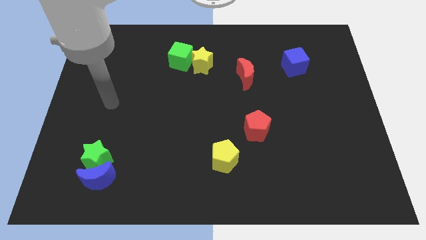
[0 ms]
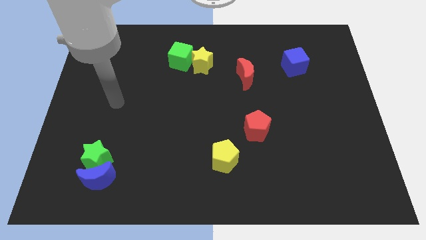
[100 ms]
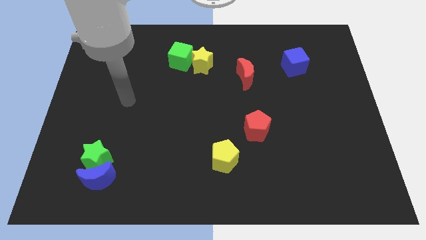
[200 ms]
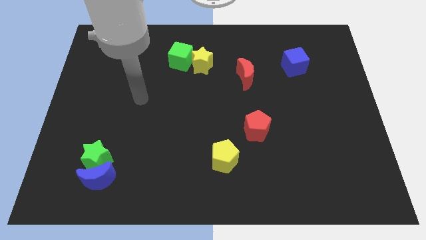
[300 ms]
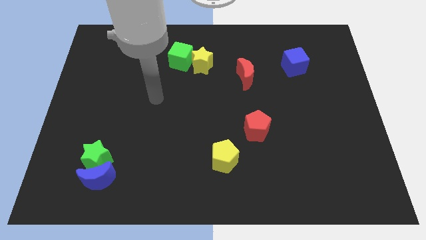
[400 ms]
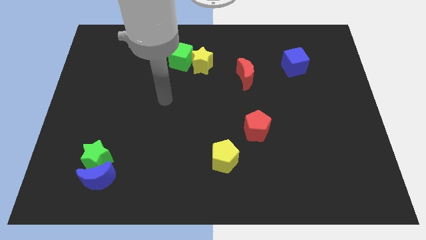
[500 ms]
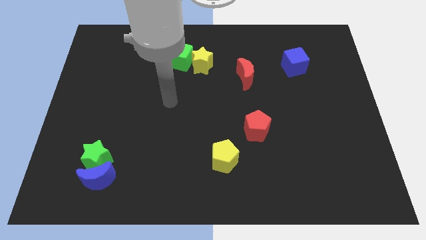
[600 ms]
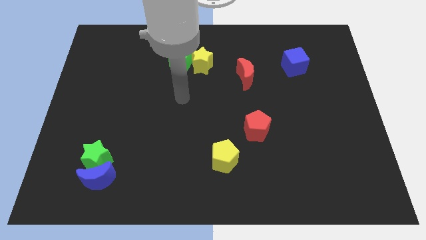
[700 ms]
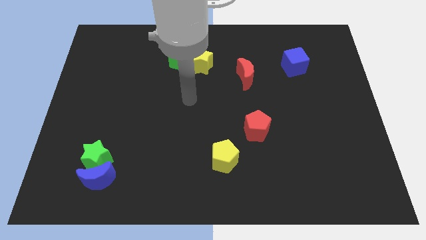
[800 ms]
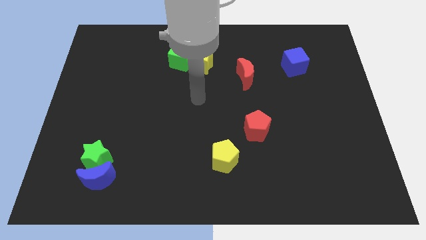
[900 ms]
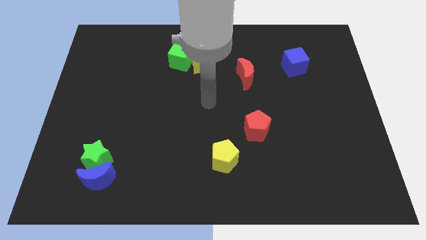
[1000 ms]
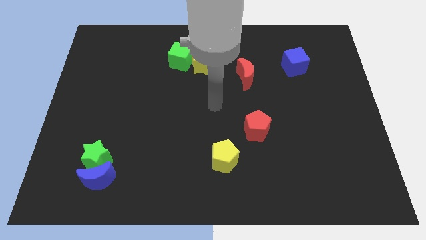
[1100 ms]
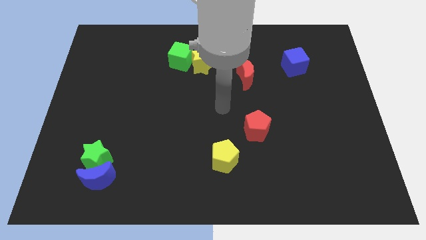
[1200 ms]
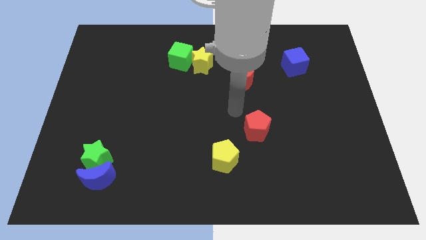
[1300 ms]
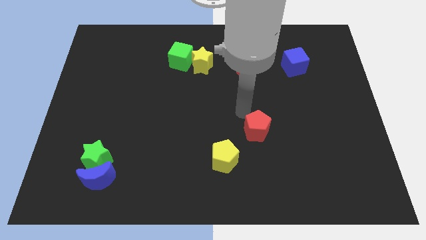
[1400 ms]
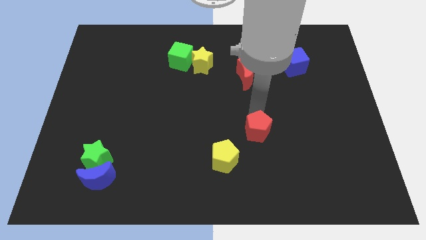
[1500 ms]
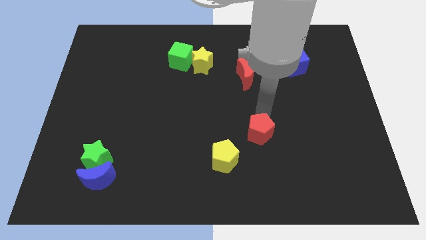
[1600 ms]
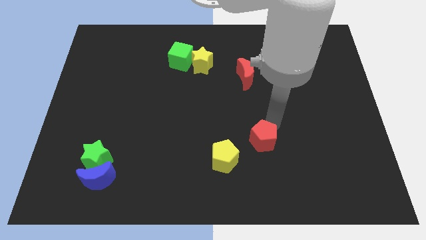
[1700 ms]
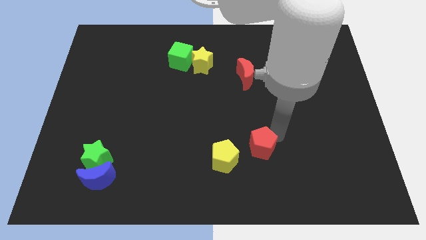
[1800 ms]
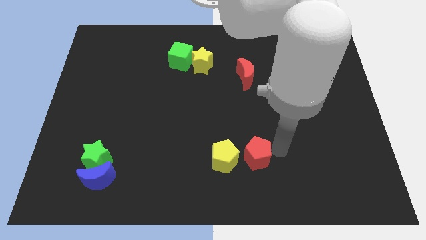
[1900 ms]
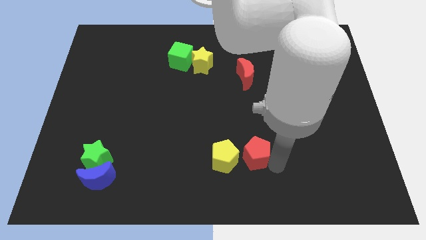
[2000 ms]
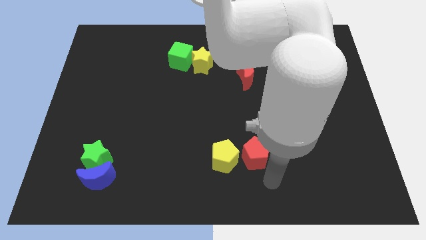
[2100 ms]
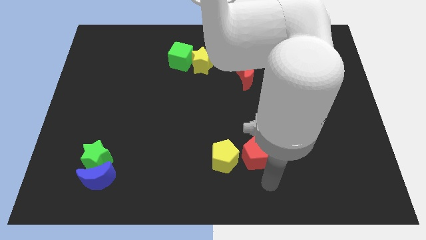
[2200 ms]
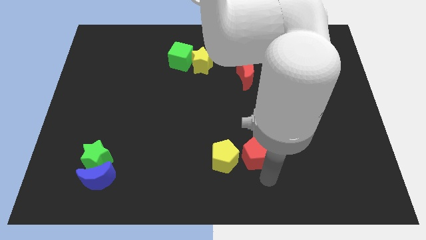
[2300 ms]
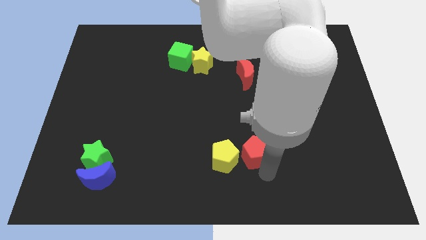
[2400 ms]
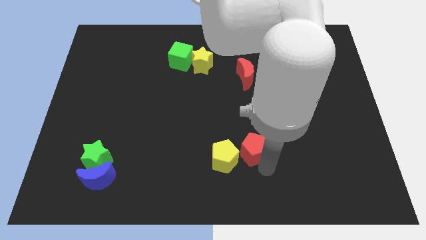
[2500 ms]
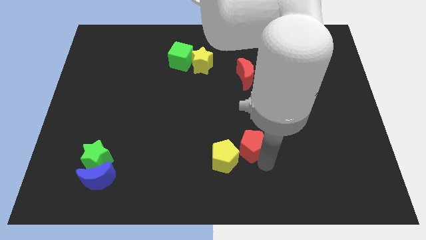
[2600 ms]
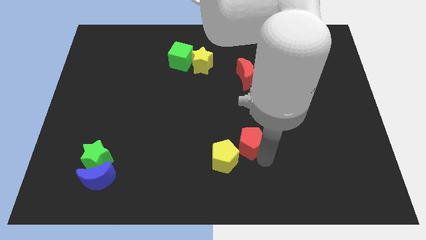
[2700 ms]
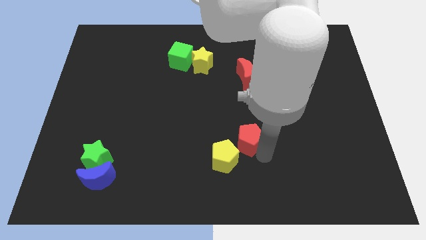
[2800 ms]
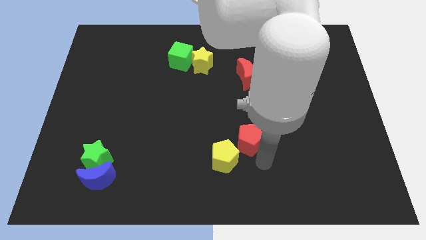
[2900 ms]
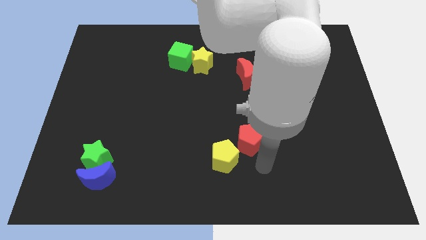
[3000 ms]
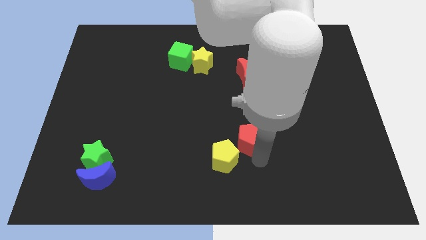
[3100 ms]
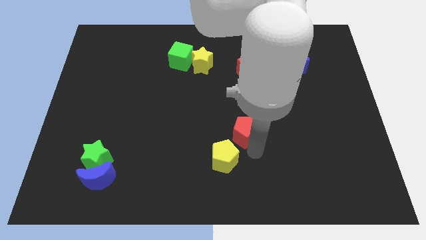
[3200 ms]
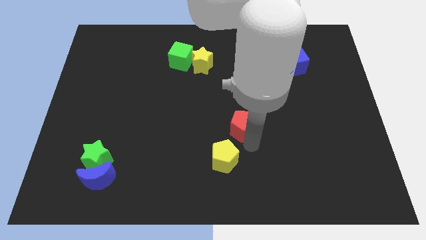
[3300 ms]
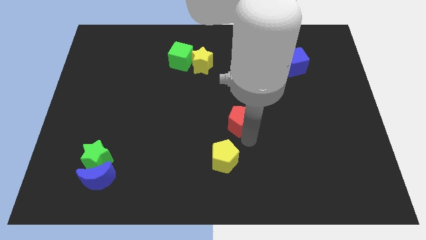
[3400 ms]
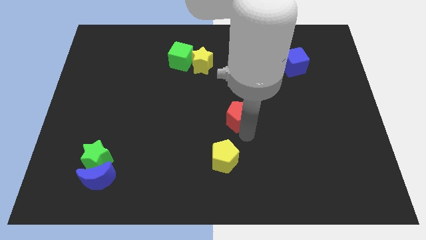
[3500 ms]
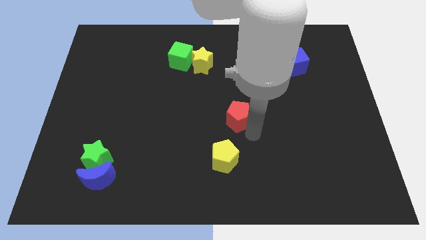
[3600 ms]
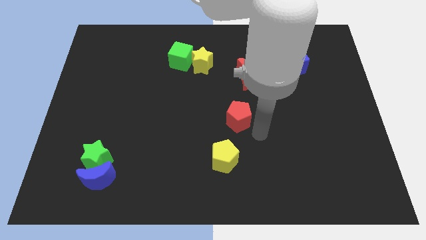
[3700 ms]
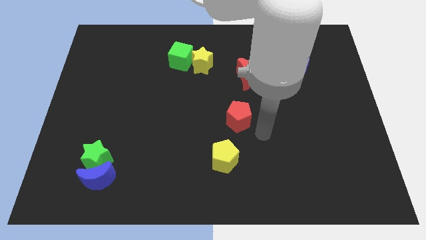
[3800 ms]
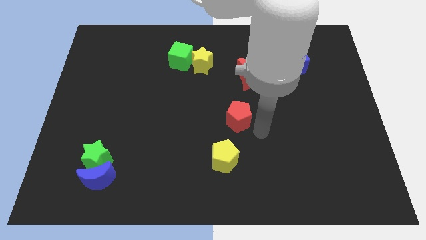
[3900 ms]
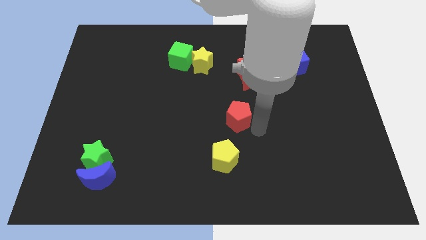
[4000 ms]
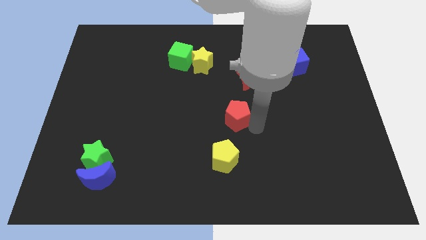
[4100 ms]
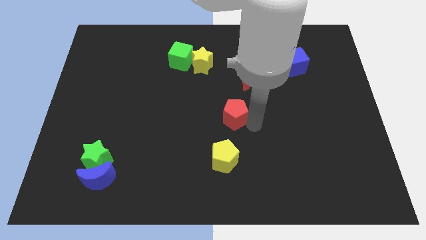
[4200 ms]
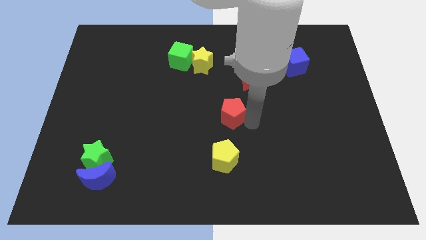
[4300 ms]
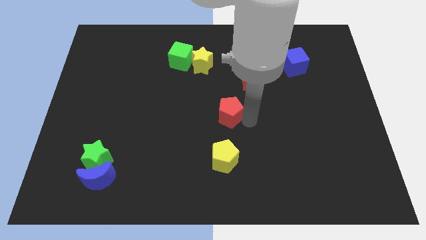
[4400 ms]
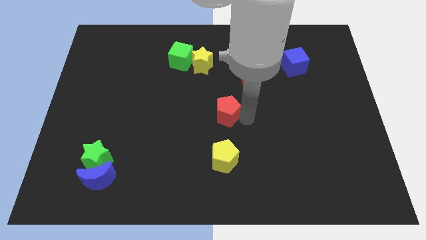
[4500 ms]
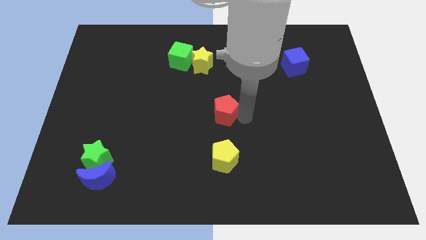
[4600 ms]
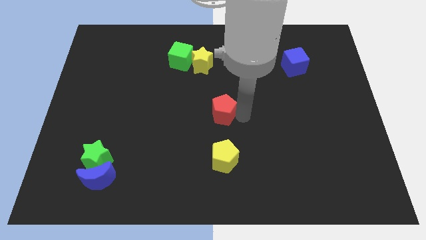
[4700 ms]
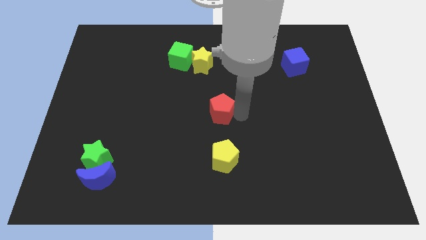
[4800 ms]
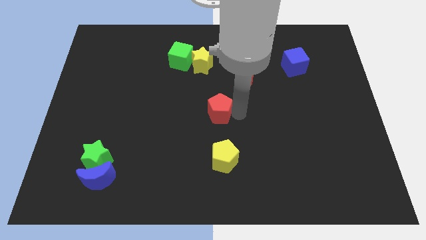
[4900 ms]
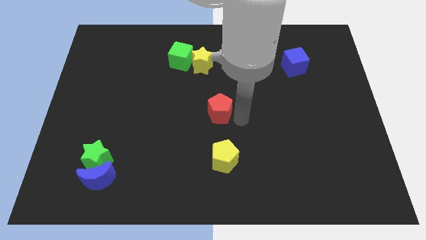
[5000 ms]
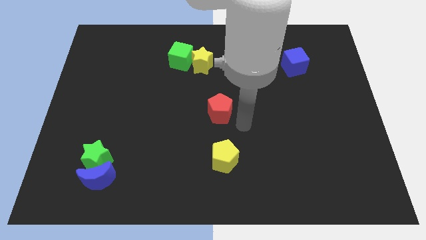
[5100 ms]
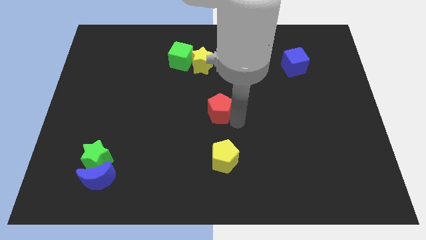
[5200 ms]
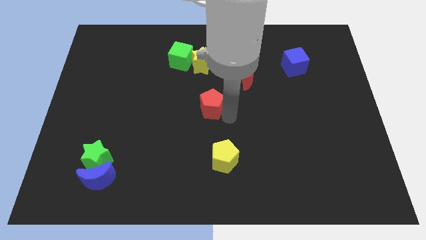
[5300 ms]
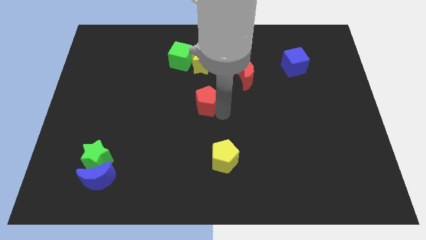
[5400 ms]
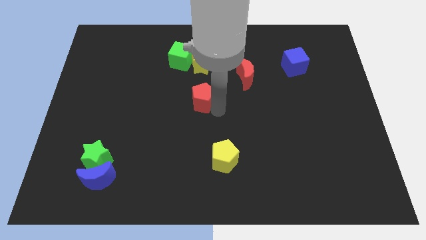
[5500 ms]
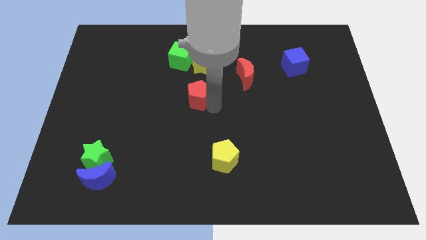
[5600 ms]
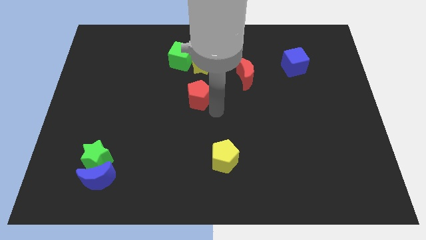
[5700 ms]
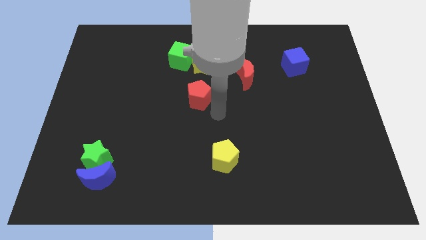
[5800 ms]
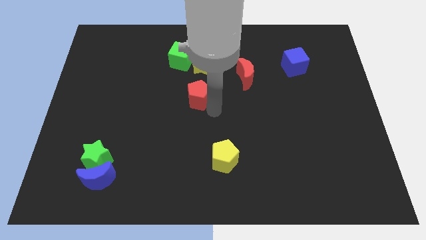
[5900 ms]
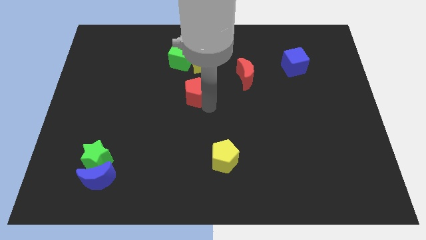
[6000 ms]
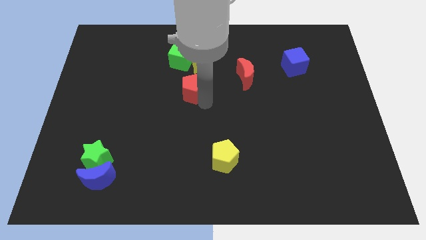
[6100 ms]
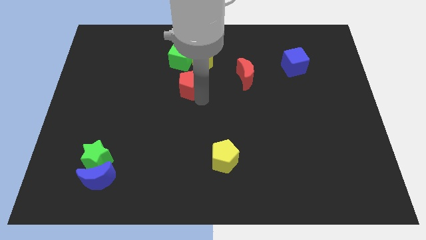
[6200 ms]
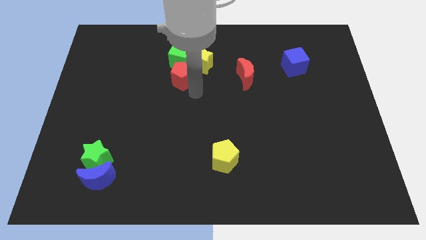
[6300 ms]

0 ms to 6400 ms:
push the red pentagon just left of the yellow star

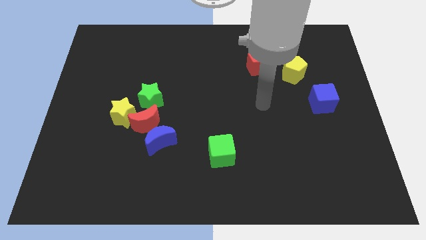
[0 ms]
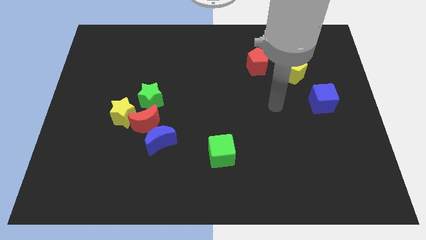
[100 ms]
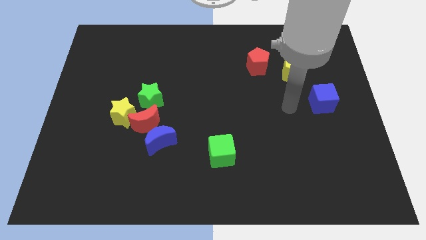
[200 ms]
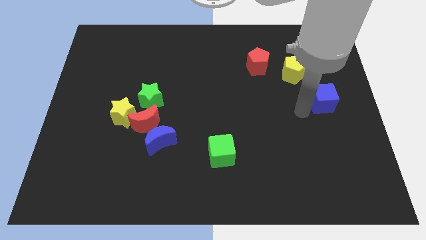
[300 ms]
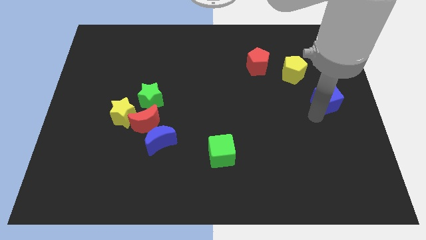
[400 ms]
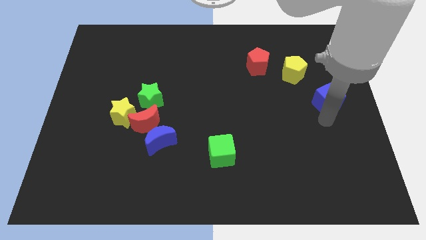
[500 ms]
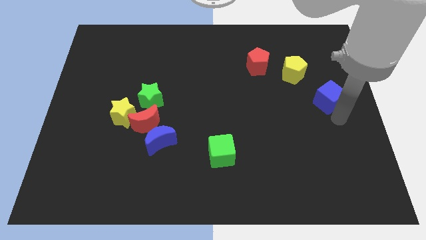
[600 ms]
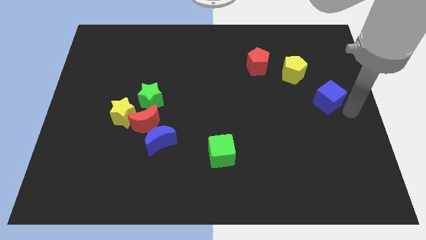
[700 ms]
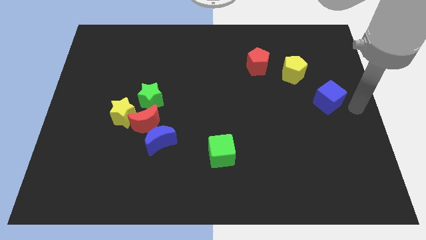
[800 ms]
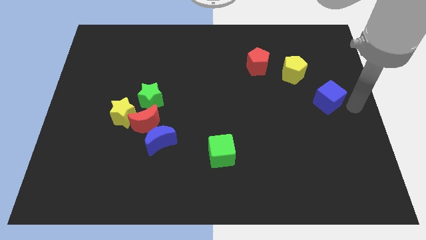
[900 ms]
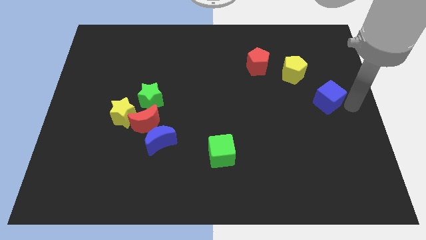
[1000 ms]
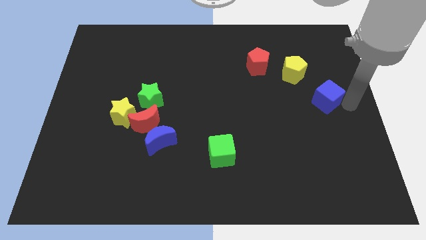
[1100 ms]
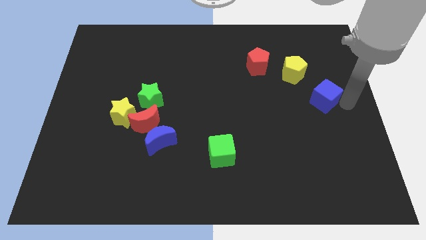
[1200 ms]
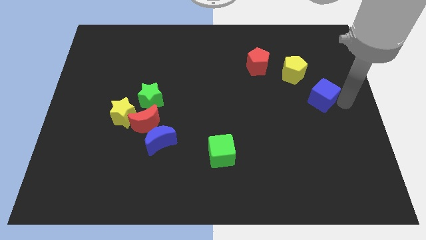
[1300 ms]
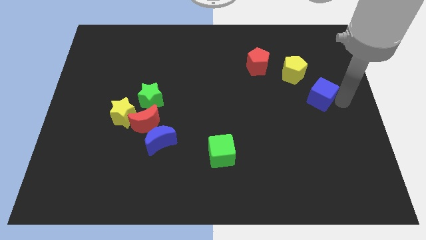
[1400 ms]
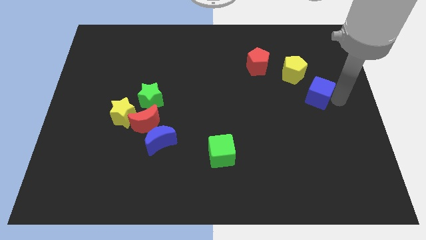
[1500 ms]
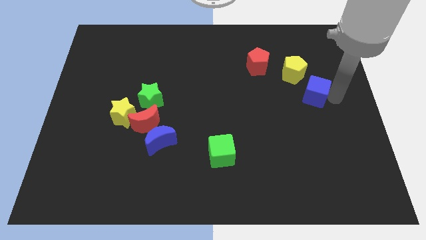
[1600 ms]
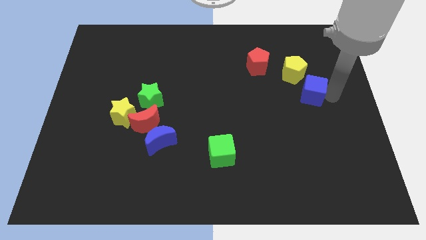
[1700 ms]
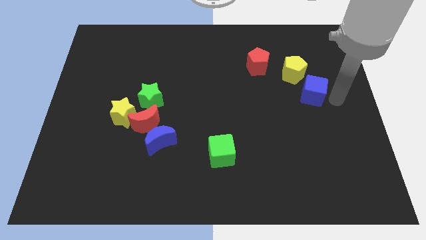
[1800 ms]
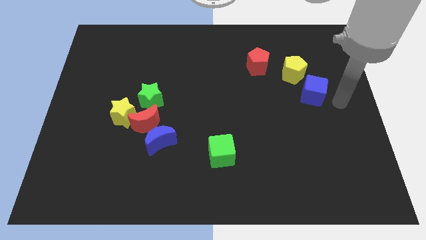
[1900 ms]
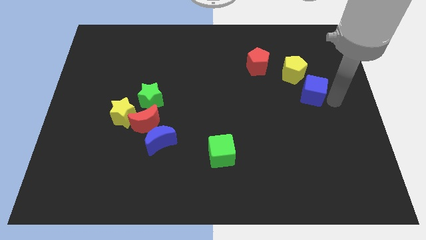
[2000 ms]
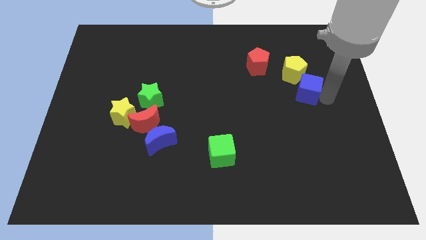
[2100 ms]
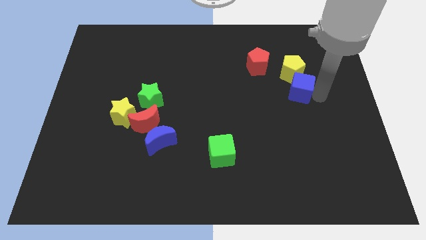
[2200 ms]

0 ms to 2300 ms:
slide the blue cube to the bottom right of the red pentagon
